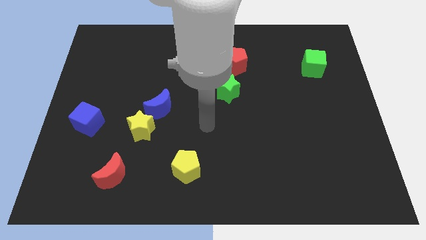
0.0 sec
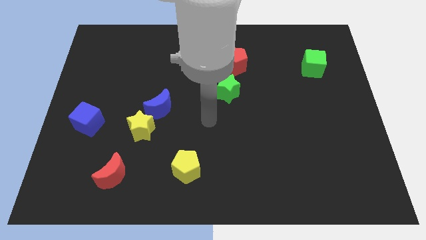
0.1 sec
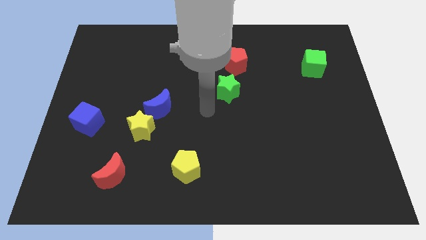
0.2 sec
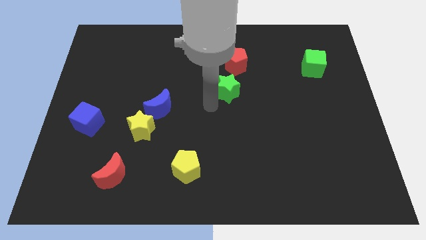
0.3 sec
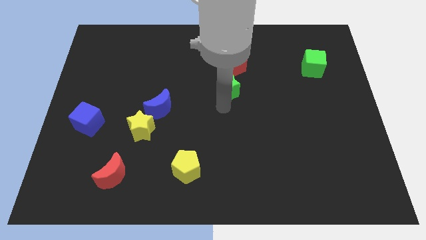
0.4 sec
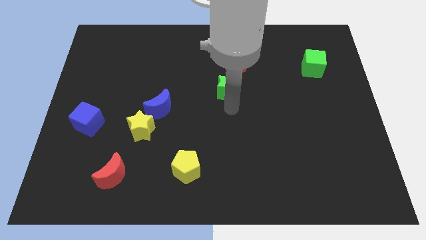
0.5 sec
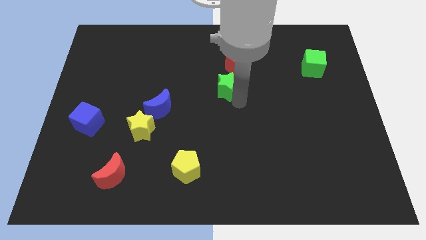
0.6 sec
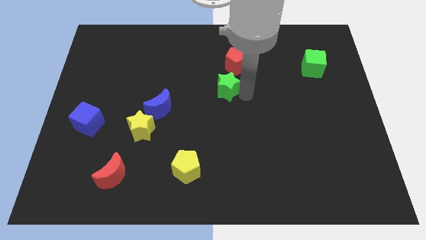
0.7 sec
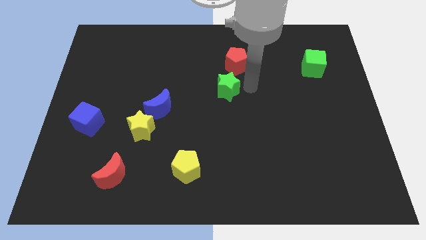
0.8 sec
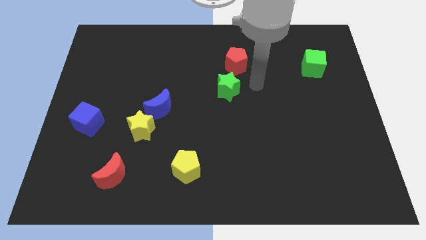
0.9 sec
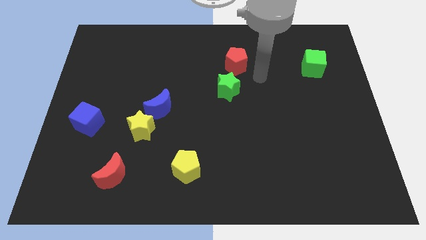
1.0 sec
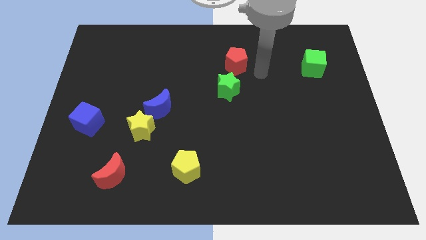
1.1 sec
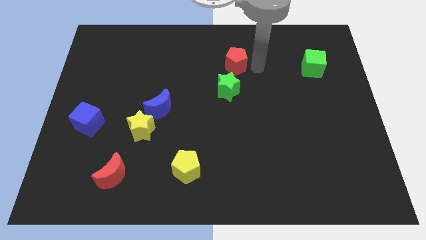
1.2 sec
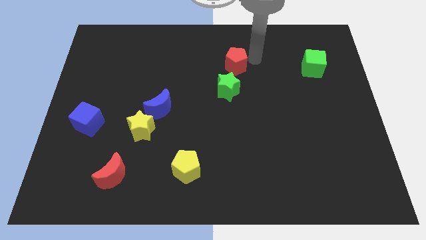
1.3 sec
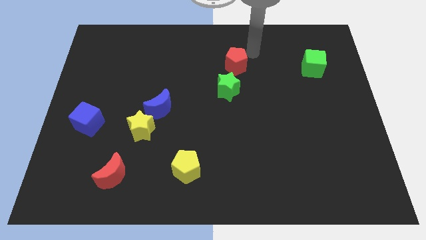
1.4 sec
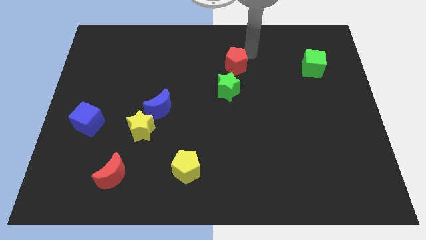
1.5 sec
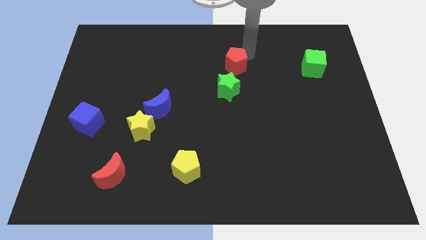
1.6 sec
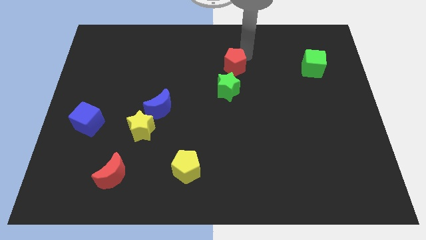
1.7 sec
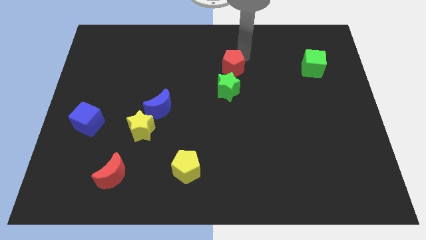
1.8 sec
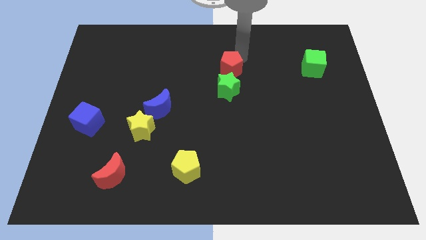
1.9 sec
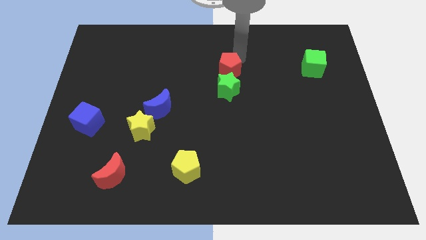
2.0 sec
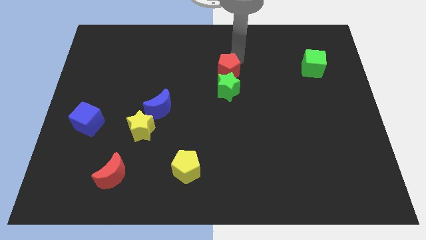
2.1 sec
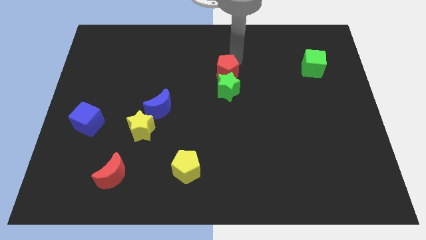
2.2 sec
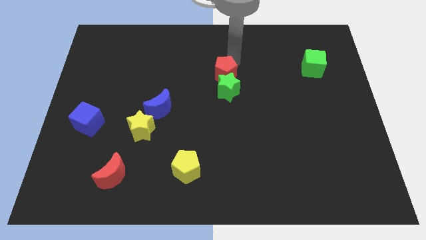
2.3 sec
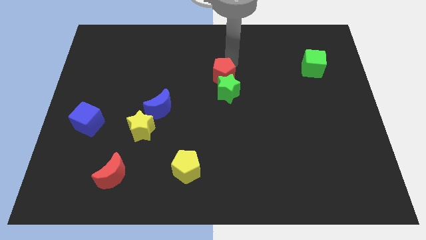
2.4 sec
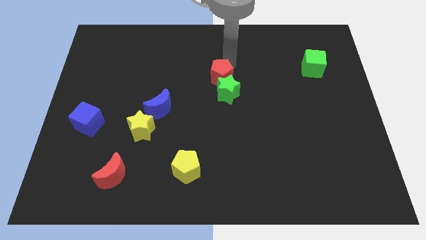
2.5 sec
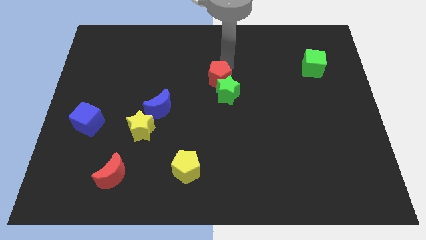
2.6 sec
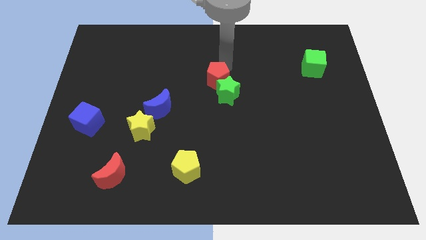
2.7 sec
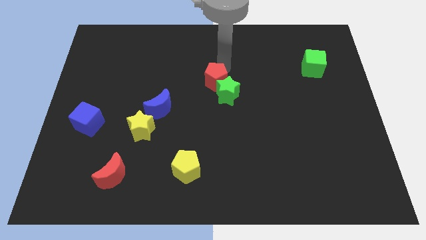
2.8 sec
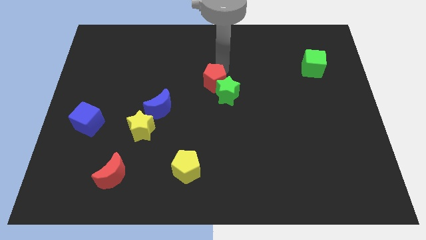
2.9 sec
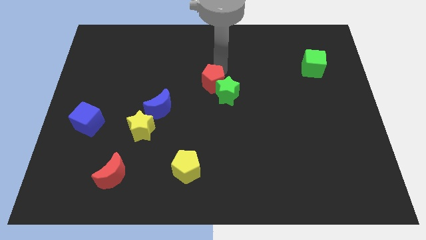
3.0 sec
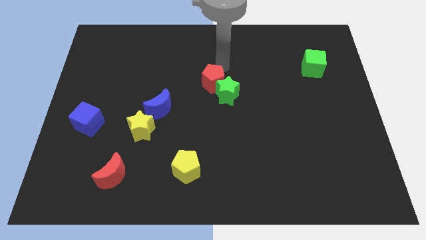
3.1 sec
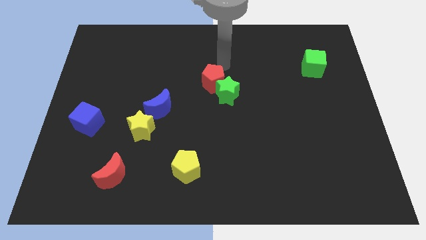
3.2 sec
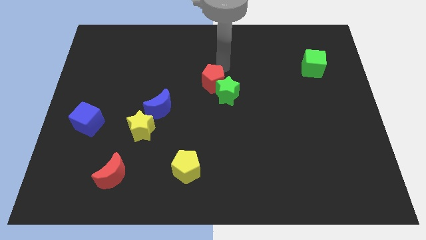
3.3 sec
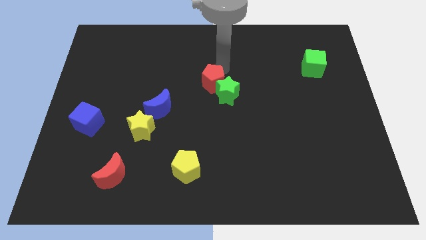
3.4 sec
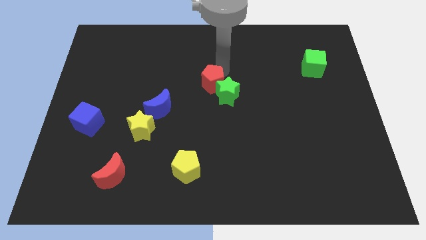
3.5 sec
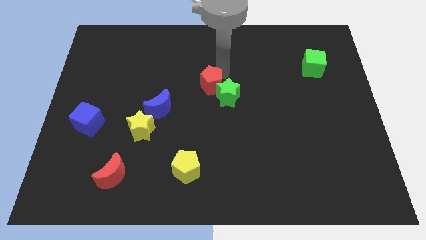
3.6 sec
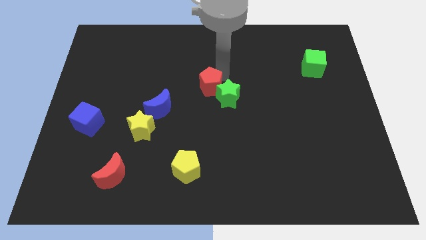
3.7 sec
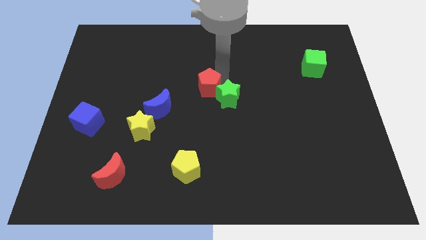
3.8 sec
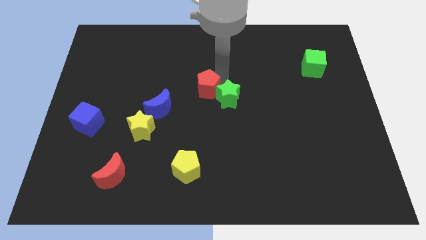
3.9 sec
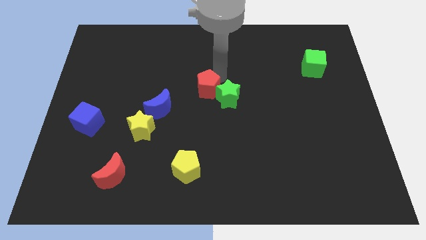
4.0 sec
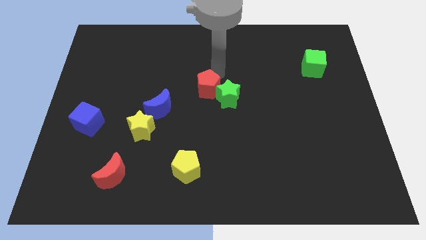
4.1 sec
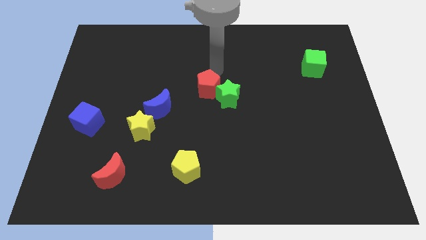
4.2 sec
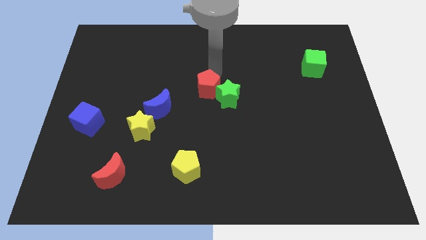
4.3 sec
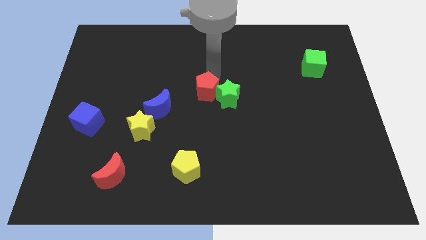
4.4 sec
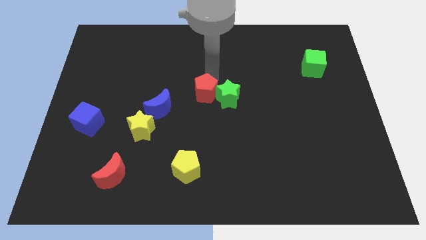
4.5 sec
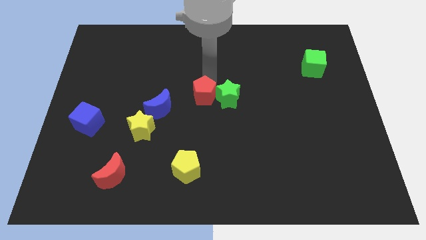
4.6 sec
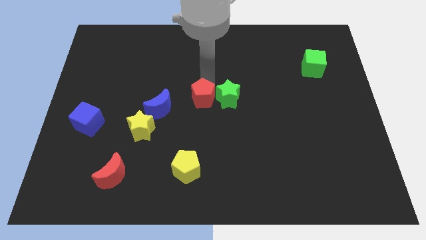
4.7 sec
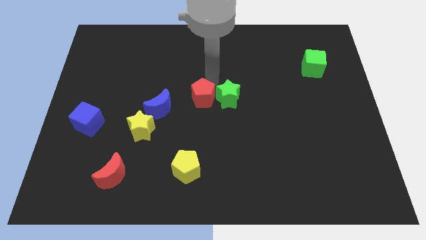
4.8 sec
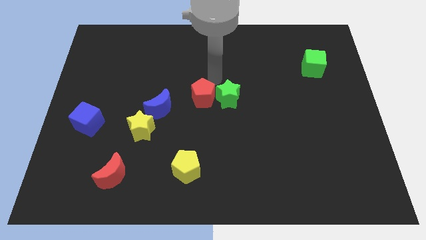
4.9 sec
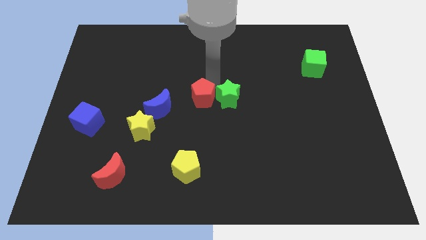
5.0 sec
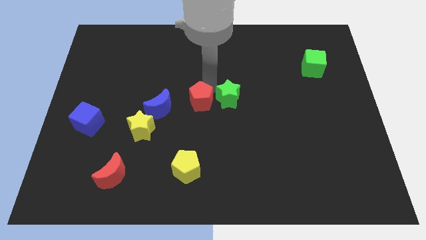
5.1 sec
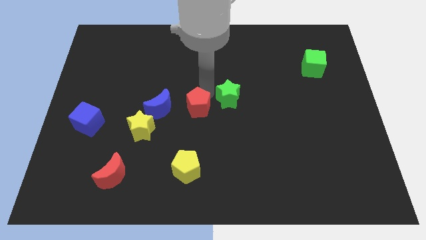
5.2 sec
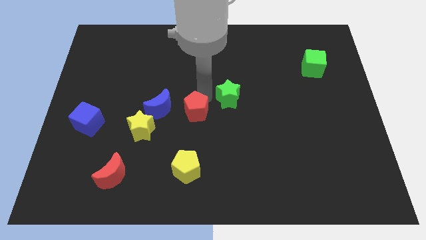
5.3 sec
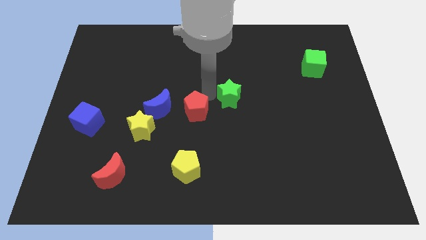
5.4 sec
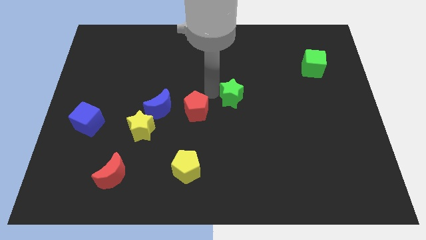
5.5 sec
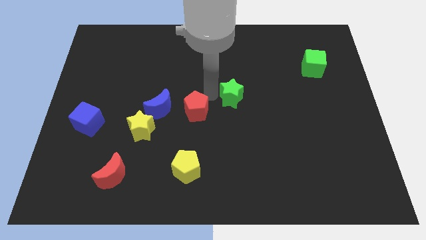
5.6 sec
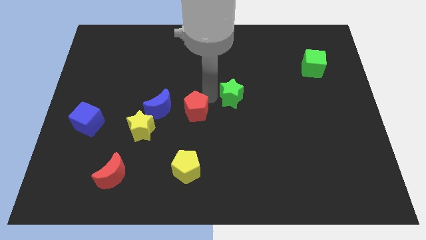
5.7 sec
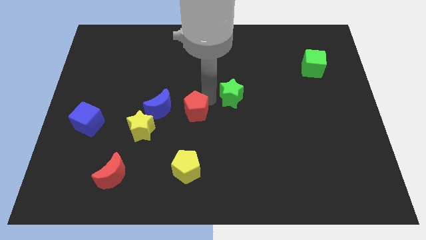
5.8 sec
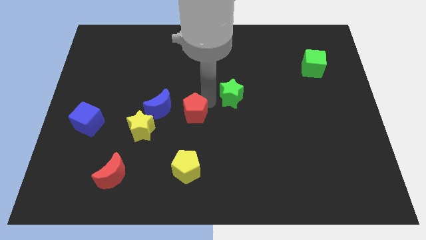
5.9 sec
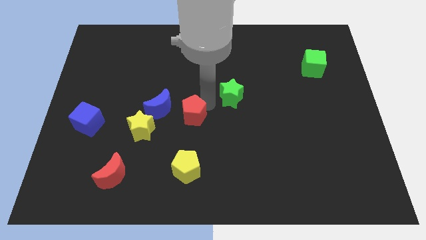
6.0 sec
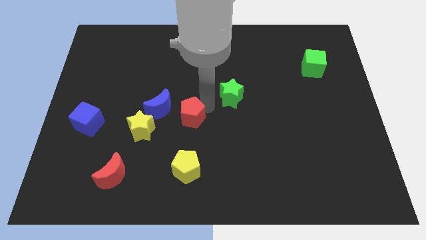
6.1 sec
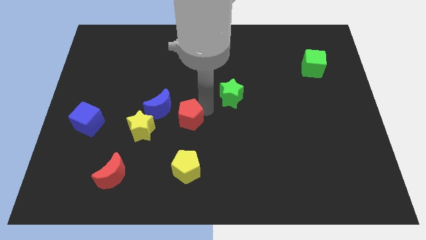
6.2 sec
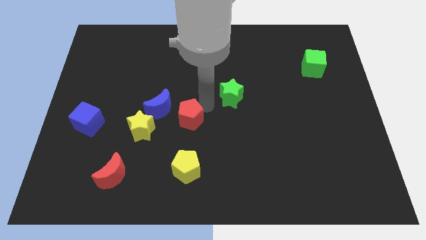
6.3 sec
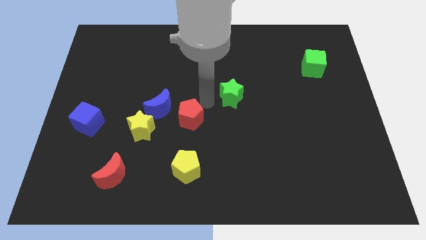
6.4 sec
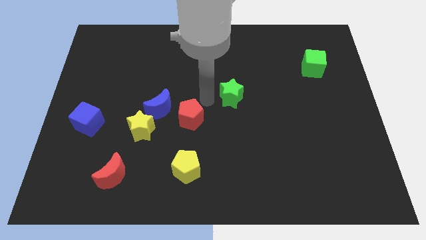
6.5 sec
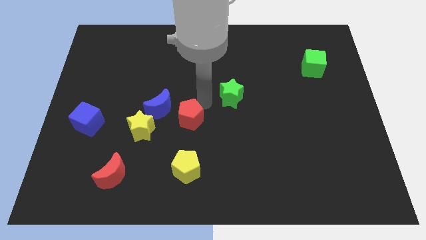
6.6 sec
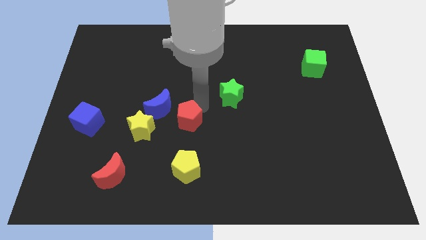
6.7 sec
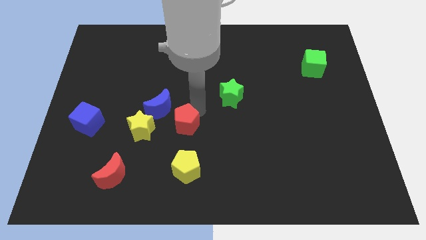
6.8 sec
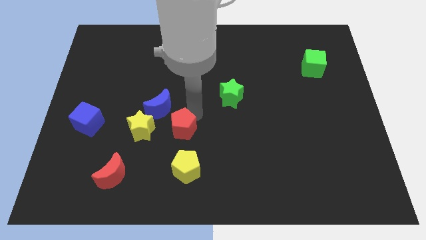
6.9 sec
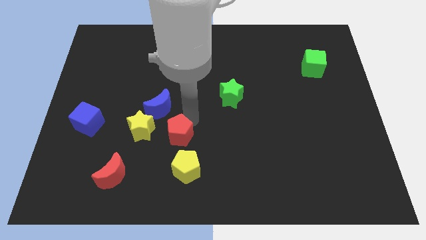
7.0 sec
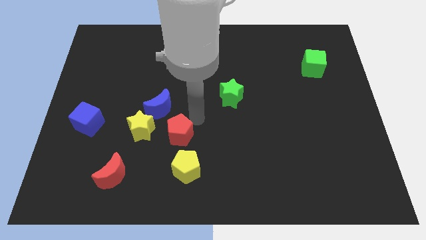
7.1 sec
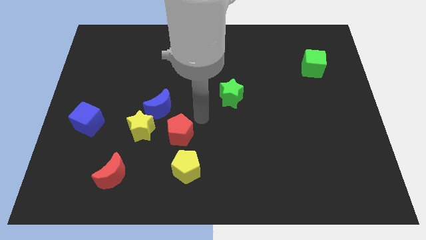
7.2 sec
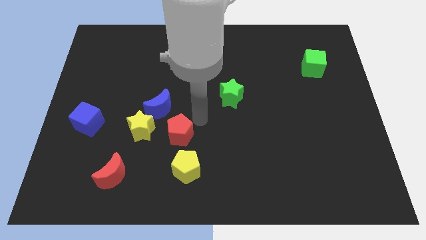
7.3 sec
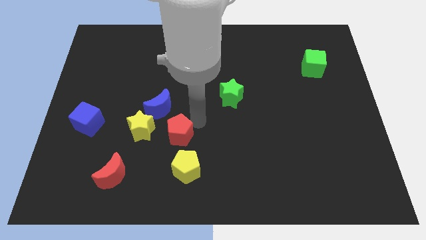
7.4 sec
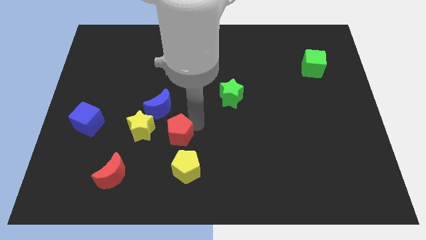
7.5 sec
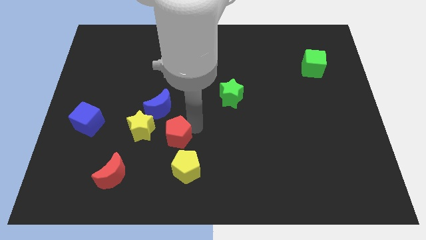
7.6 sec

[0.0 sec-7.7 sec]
put the red pentagon diagonally down and to the right of the yellow star

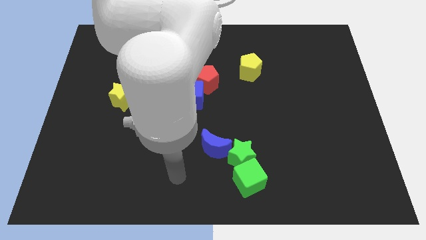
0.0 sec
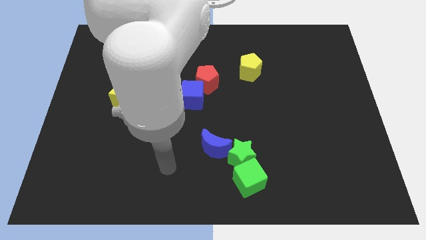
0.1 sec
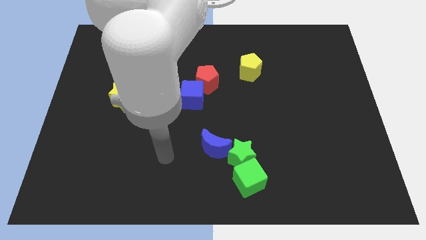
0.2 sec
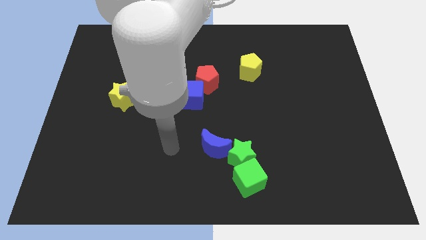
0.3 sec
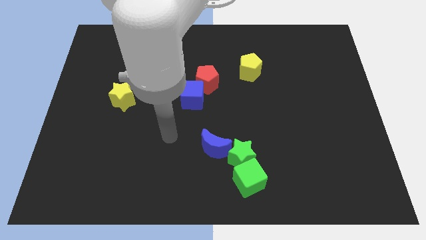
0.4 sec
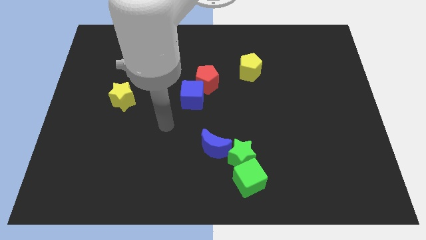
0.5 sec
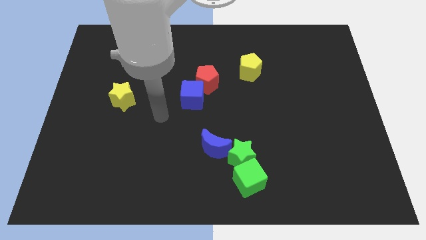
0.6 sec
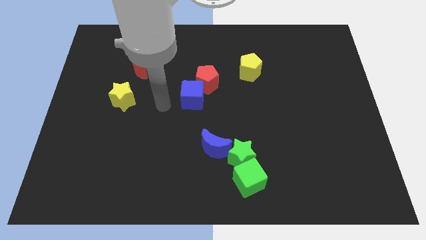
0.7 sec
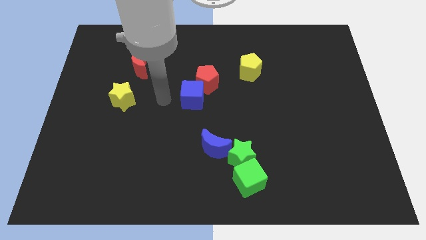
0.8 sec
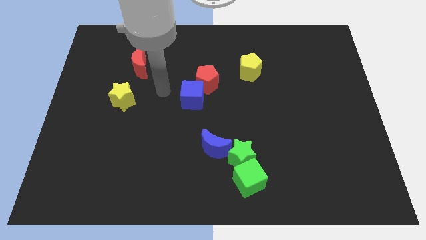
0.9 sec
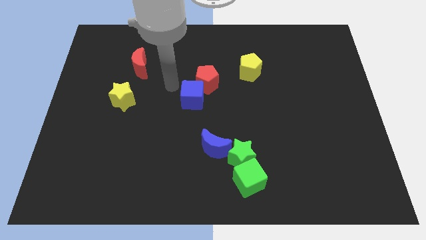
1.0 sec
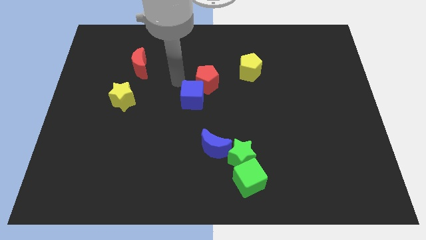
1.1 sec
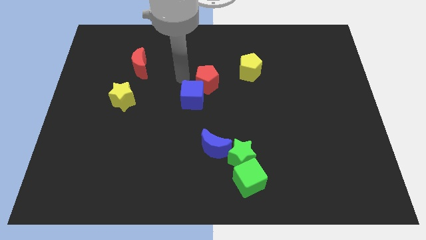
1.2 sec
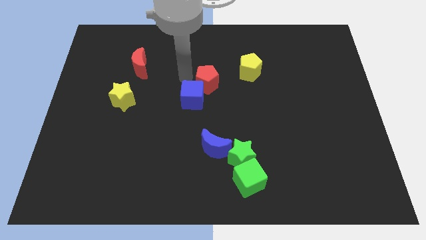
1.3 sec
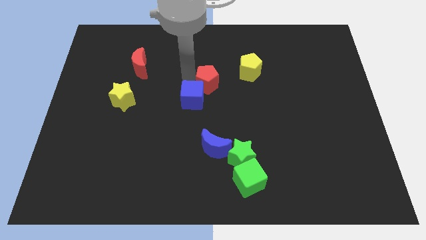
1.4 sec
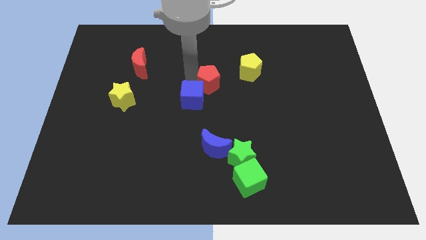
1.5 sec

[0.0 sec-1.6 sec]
push the red pentagon to the bottom left side of the yellow pentagon
